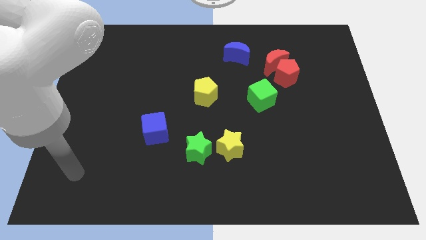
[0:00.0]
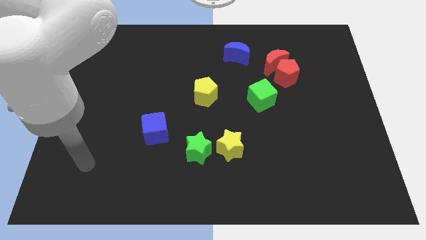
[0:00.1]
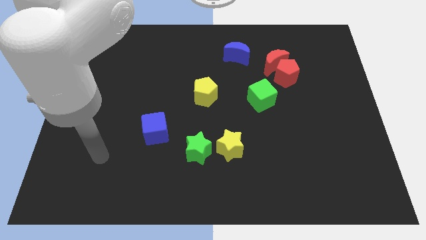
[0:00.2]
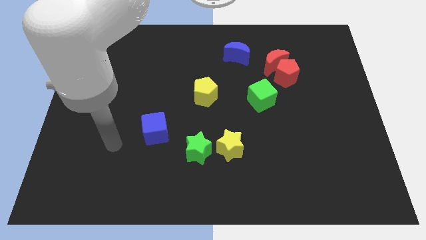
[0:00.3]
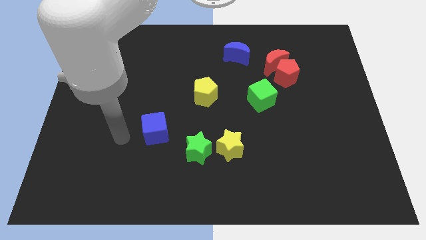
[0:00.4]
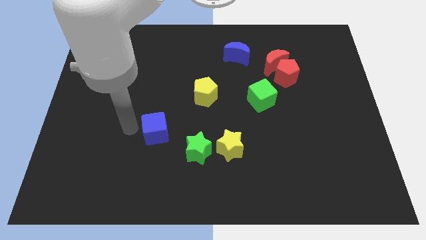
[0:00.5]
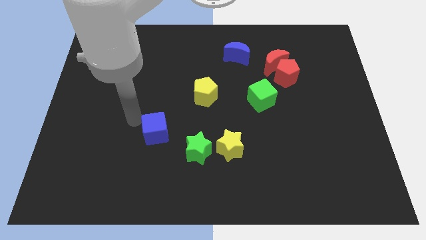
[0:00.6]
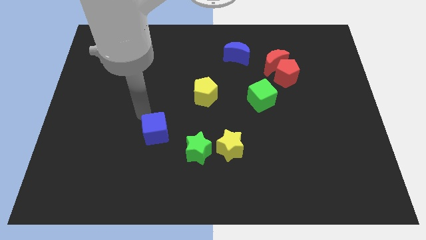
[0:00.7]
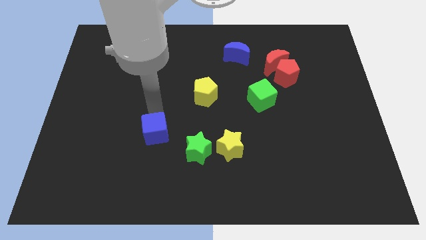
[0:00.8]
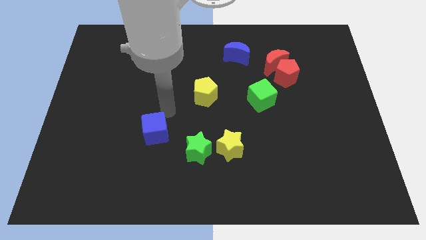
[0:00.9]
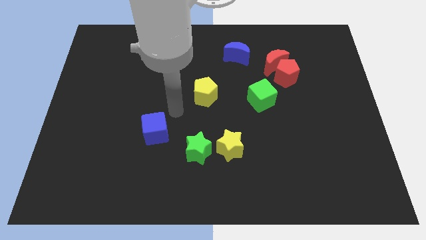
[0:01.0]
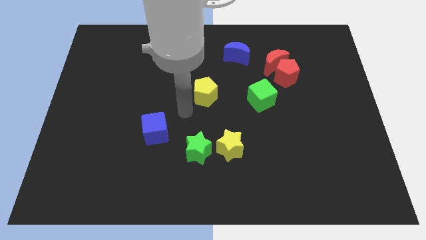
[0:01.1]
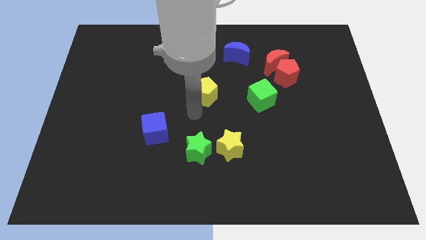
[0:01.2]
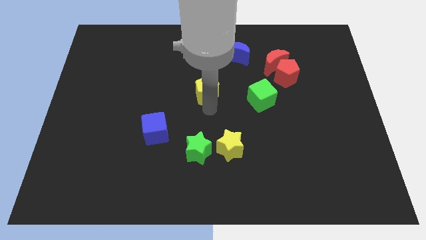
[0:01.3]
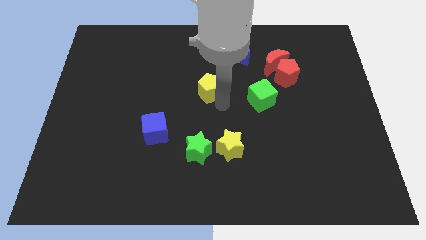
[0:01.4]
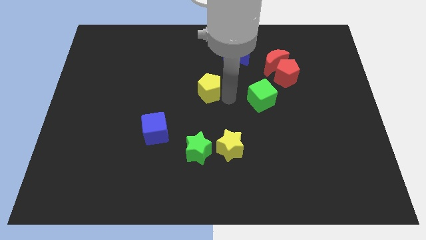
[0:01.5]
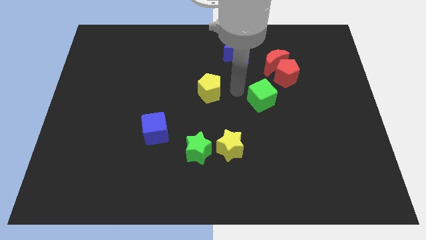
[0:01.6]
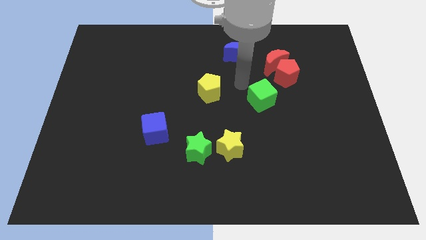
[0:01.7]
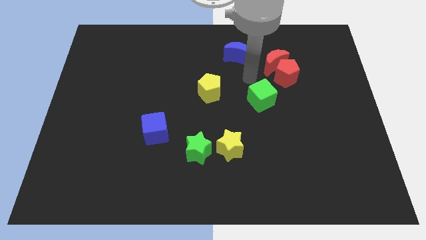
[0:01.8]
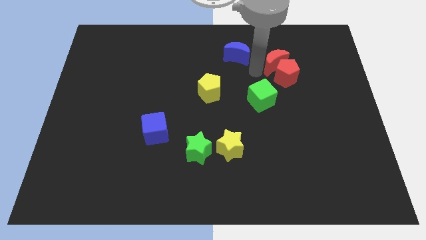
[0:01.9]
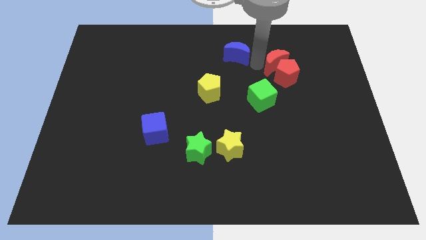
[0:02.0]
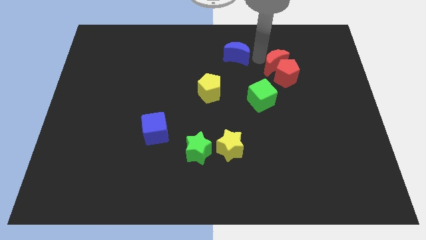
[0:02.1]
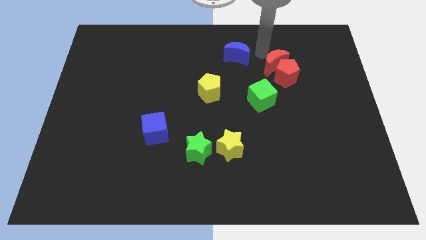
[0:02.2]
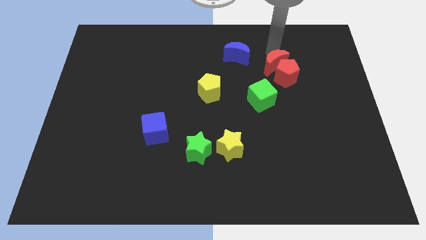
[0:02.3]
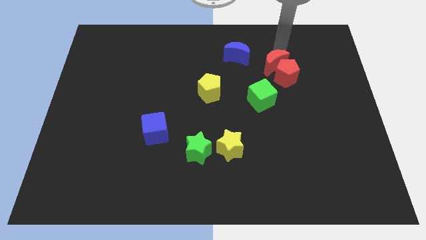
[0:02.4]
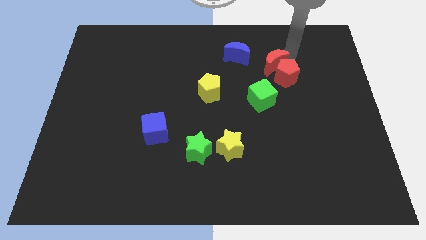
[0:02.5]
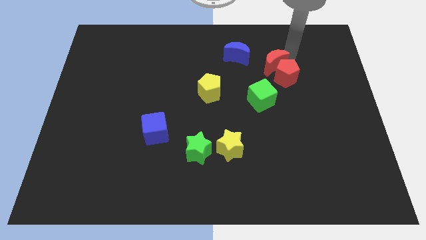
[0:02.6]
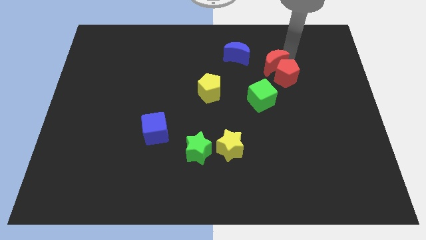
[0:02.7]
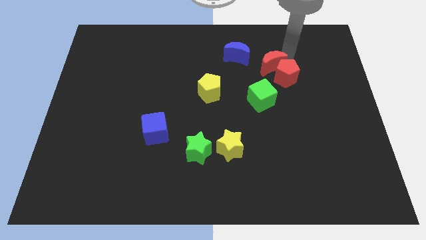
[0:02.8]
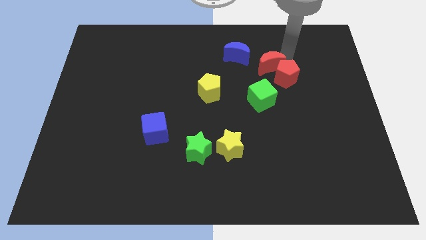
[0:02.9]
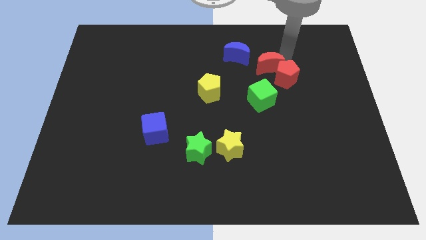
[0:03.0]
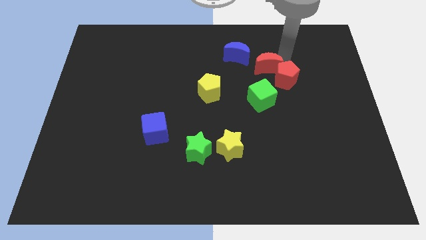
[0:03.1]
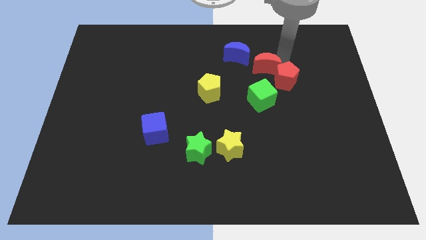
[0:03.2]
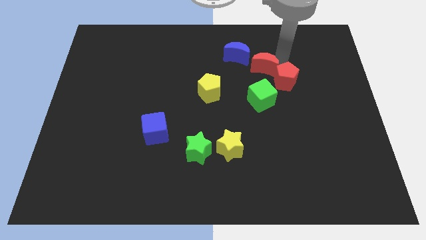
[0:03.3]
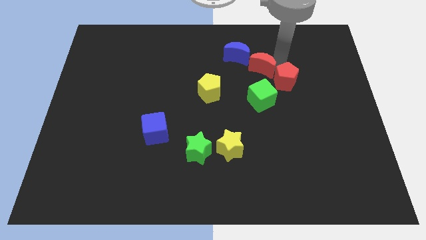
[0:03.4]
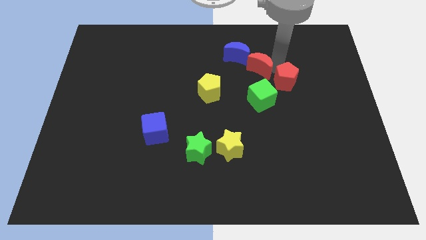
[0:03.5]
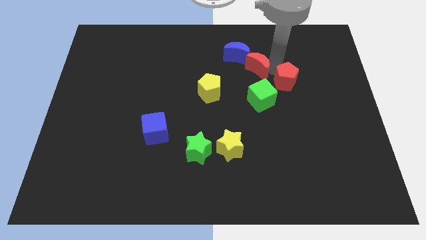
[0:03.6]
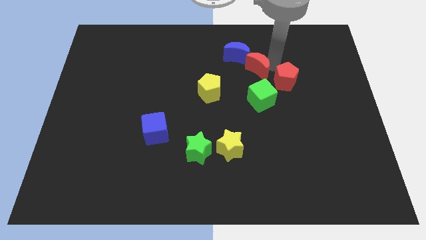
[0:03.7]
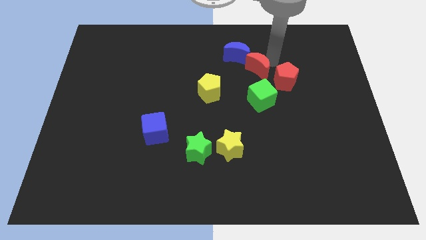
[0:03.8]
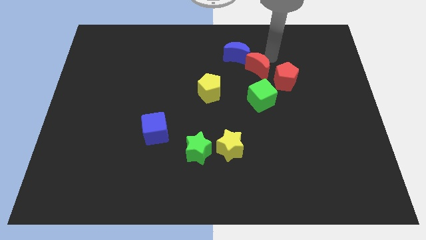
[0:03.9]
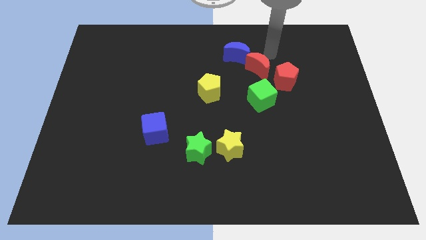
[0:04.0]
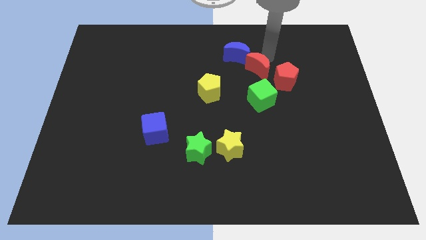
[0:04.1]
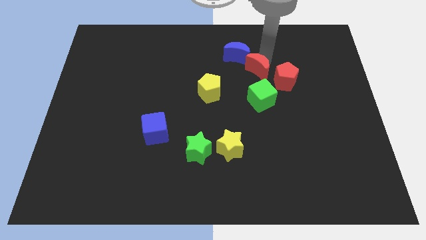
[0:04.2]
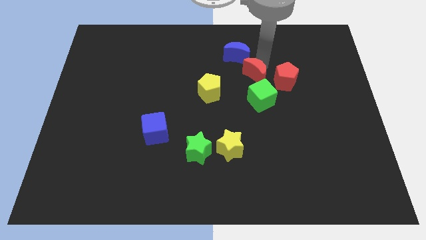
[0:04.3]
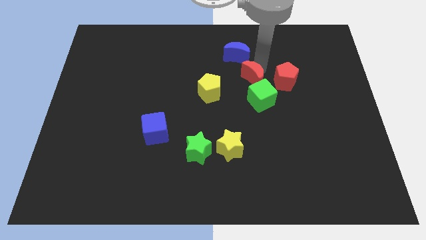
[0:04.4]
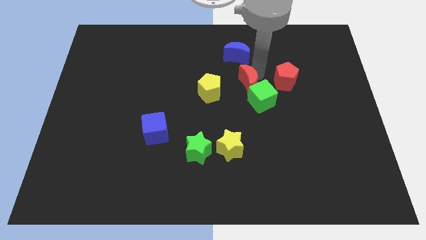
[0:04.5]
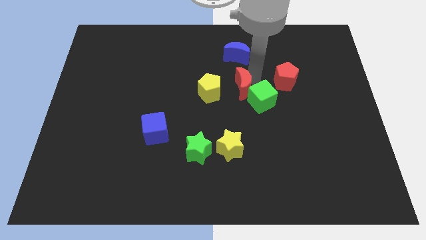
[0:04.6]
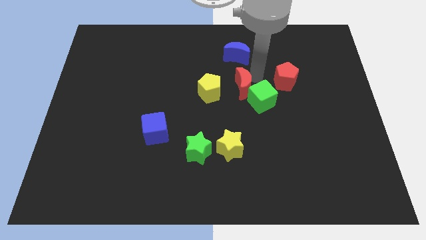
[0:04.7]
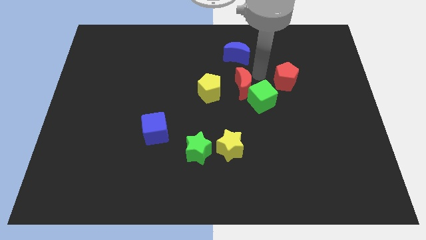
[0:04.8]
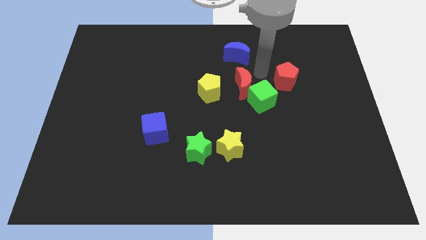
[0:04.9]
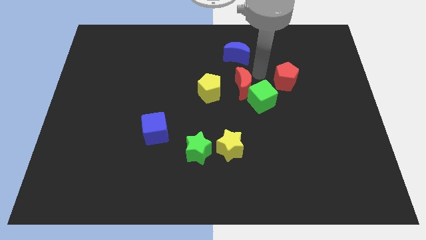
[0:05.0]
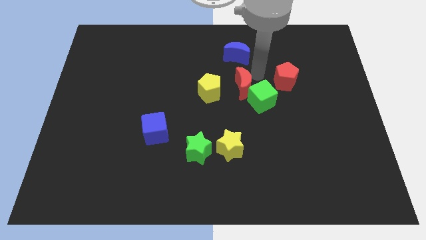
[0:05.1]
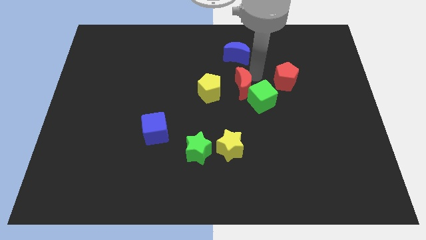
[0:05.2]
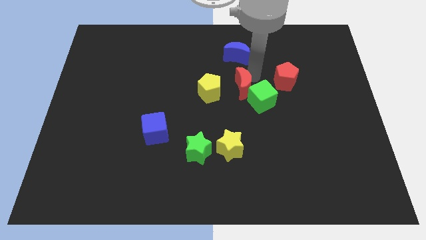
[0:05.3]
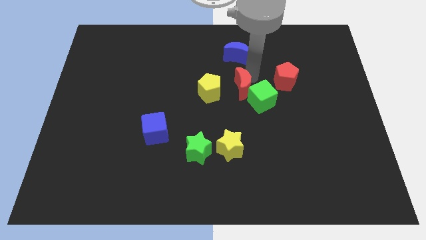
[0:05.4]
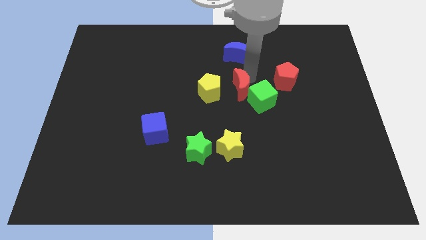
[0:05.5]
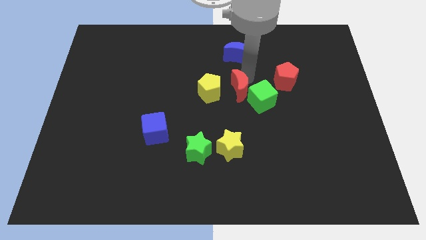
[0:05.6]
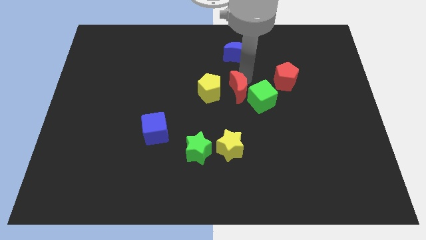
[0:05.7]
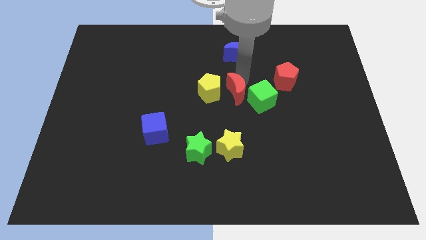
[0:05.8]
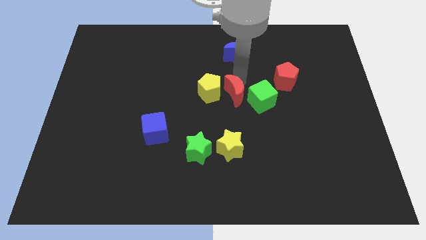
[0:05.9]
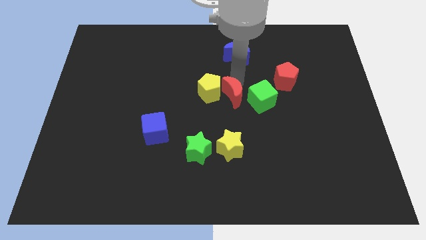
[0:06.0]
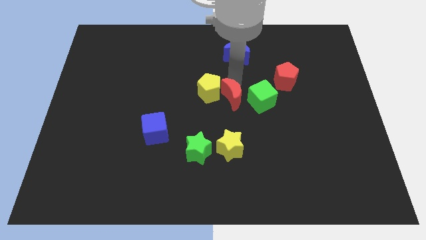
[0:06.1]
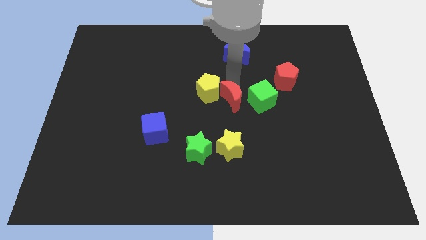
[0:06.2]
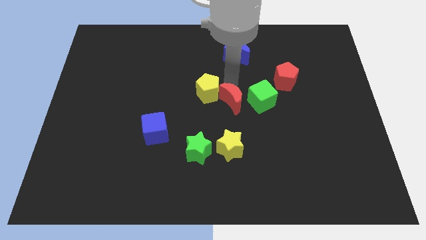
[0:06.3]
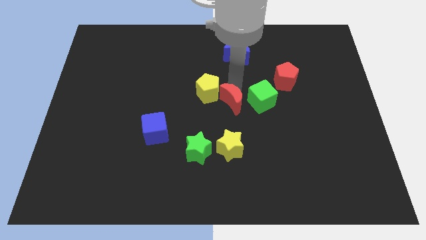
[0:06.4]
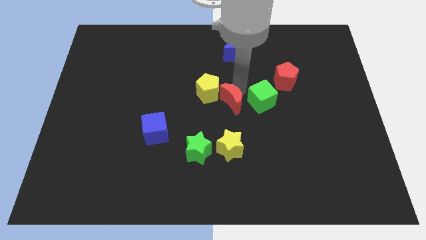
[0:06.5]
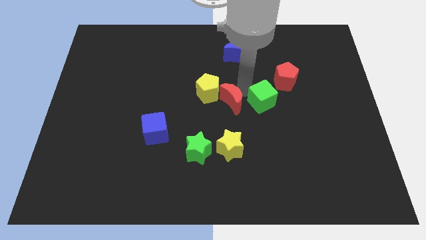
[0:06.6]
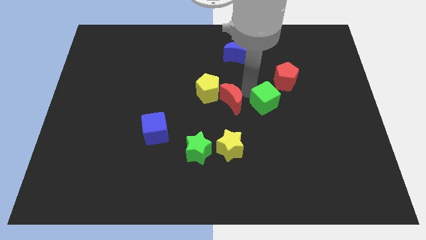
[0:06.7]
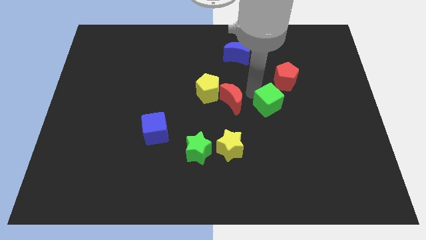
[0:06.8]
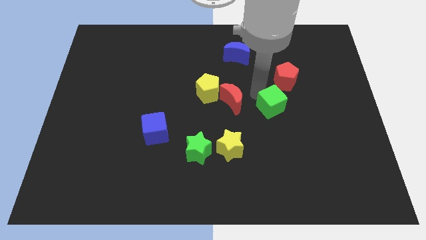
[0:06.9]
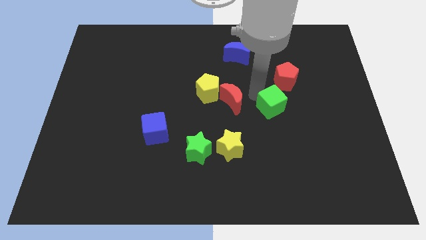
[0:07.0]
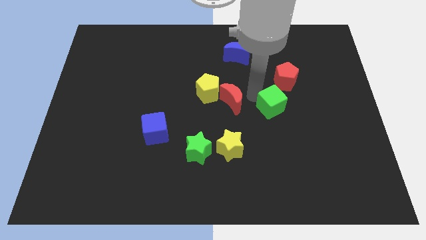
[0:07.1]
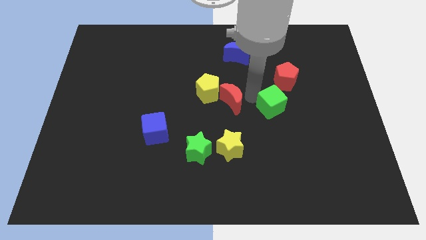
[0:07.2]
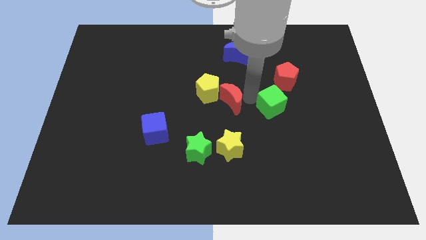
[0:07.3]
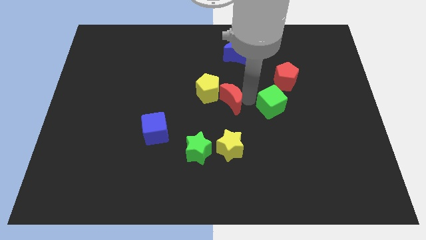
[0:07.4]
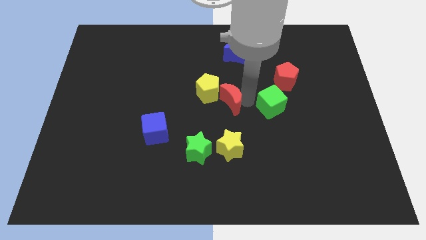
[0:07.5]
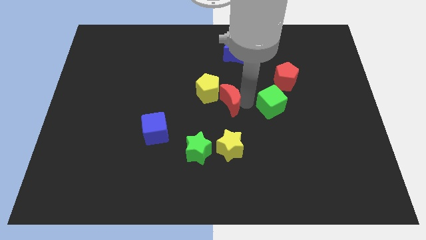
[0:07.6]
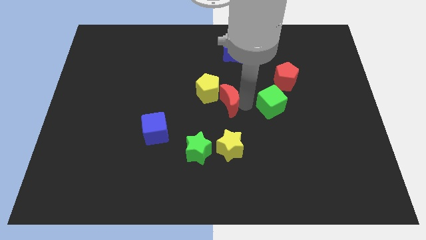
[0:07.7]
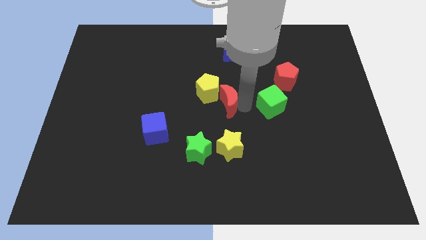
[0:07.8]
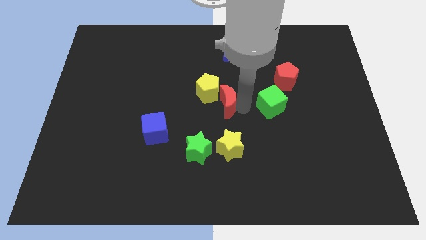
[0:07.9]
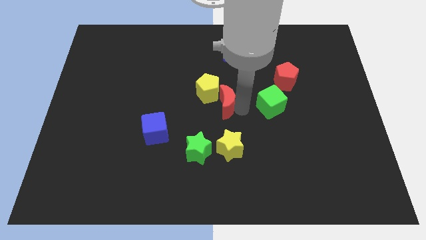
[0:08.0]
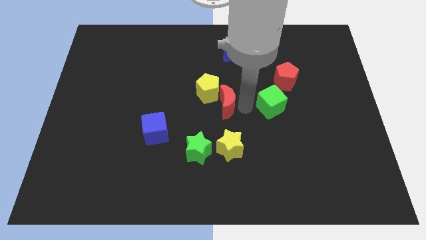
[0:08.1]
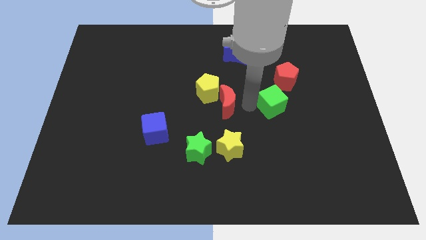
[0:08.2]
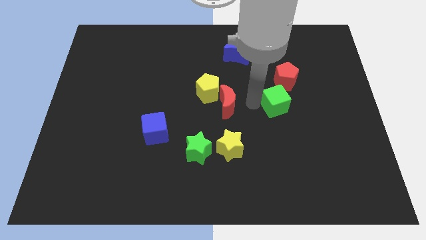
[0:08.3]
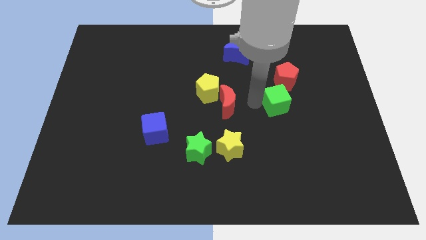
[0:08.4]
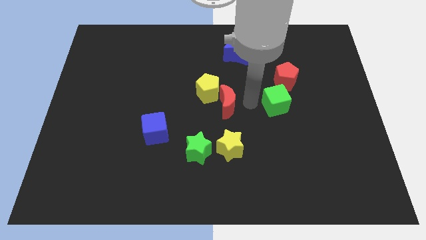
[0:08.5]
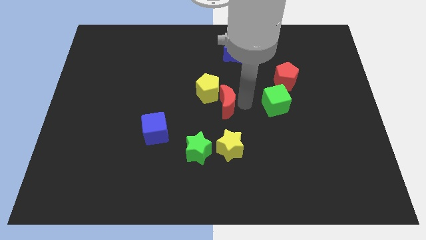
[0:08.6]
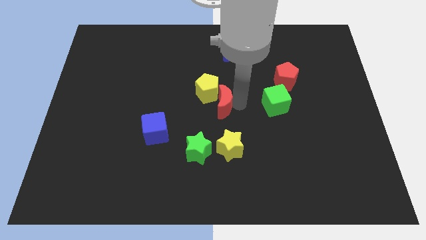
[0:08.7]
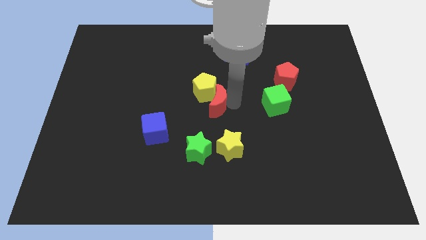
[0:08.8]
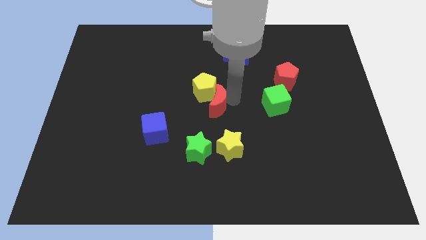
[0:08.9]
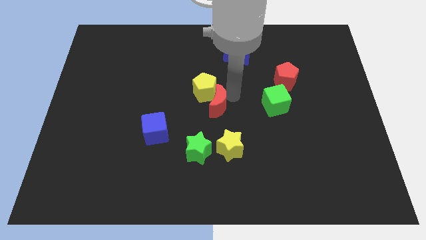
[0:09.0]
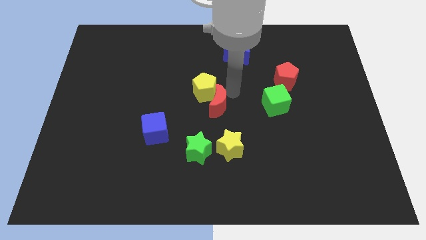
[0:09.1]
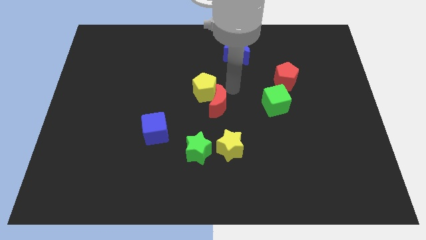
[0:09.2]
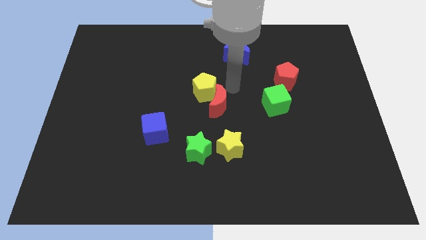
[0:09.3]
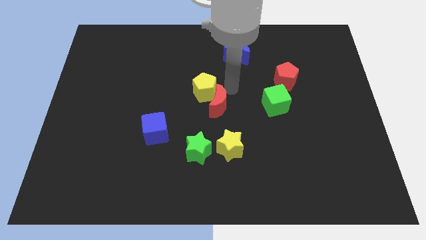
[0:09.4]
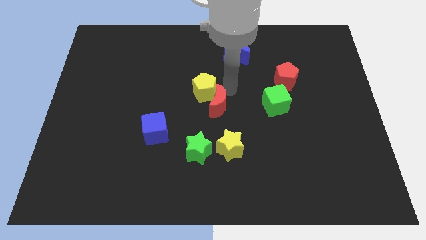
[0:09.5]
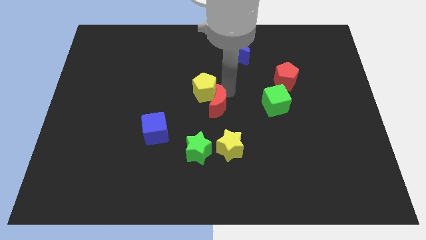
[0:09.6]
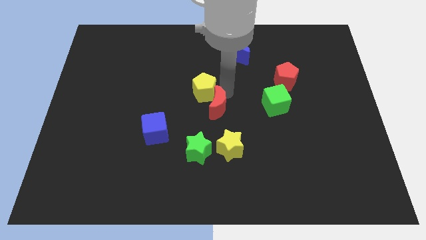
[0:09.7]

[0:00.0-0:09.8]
slide the red moon down and left
